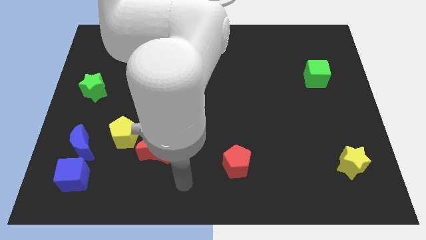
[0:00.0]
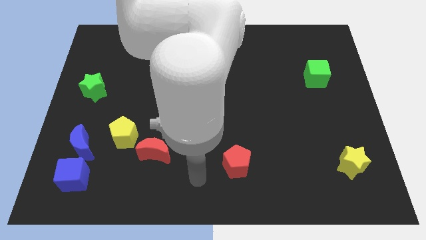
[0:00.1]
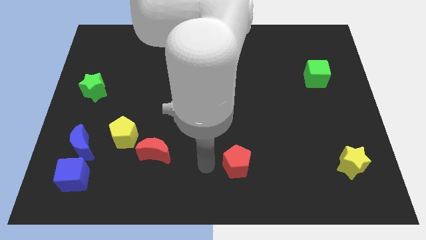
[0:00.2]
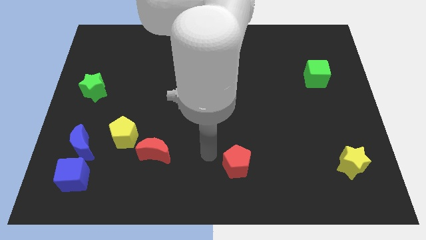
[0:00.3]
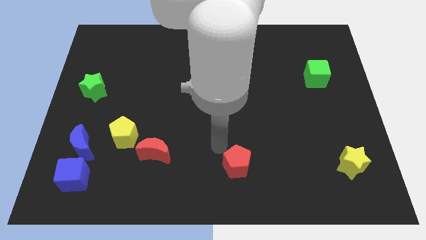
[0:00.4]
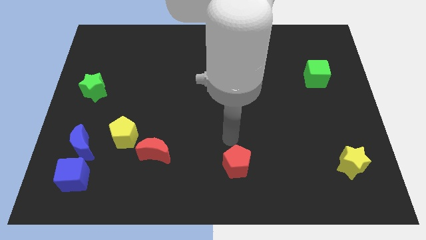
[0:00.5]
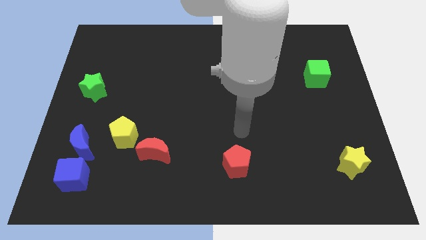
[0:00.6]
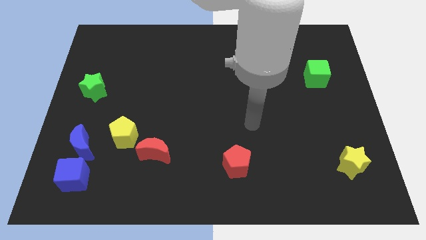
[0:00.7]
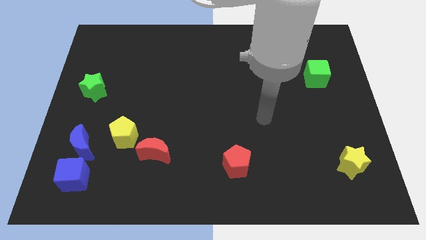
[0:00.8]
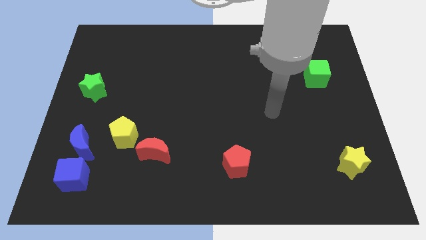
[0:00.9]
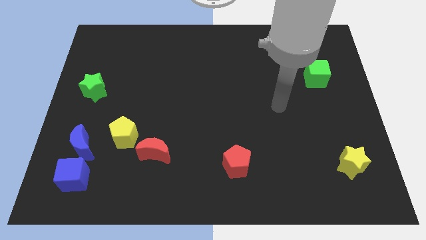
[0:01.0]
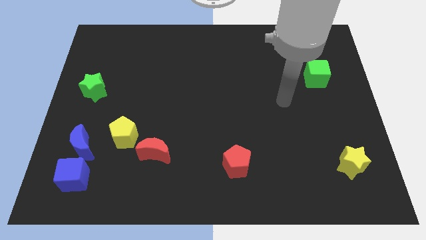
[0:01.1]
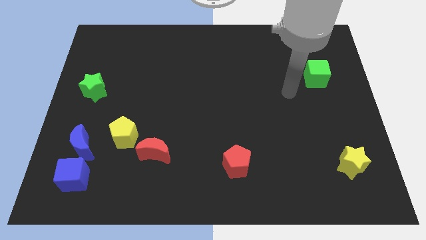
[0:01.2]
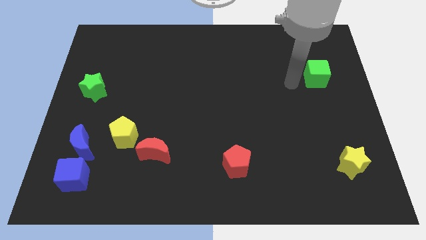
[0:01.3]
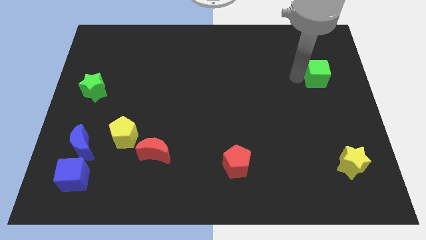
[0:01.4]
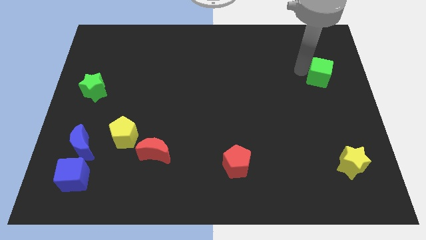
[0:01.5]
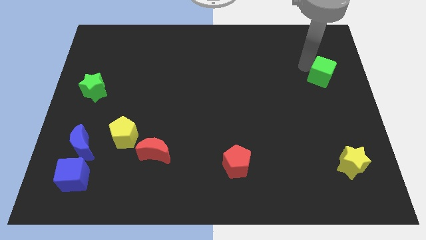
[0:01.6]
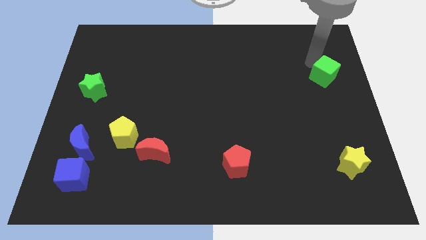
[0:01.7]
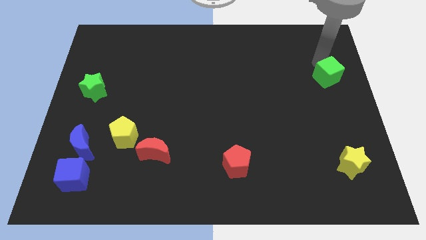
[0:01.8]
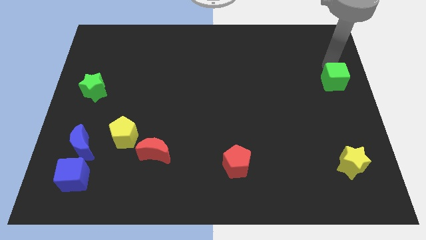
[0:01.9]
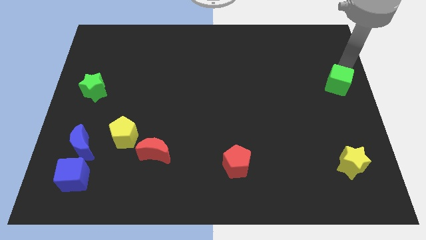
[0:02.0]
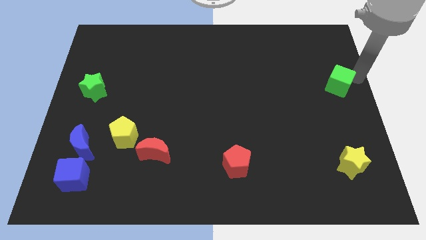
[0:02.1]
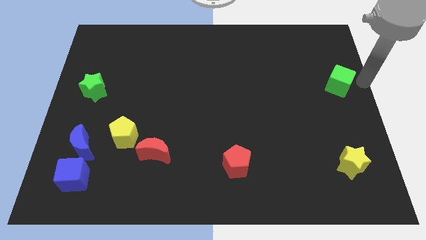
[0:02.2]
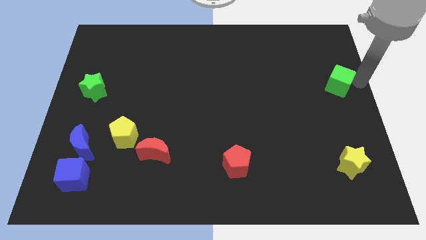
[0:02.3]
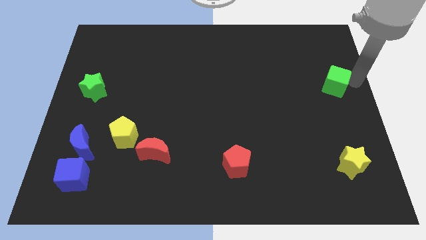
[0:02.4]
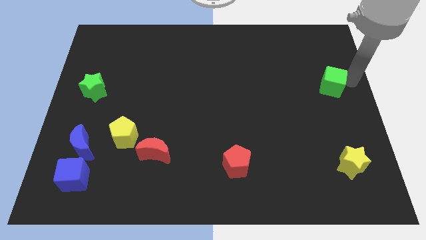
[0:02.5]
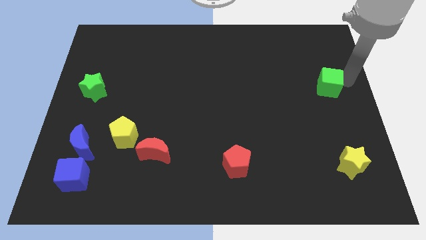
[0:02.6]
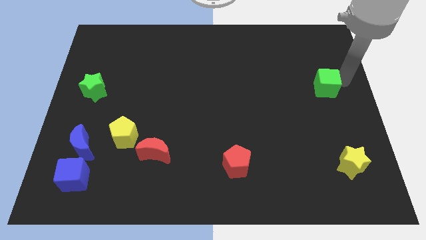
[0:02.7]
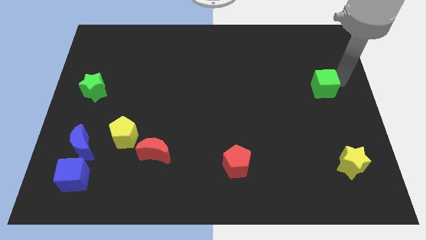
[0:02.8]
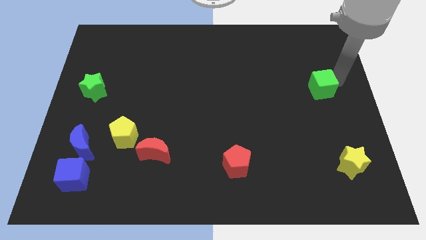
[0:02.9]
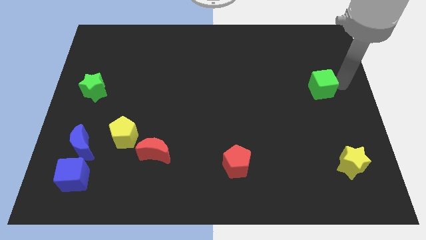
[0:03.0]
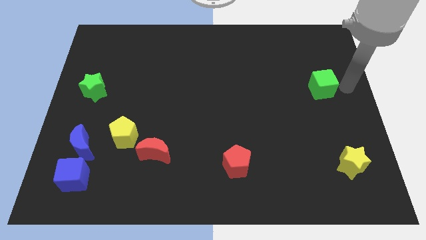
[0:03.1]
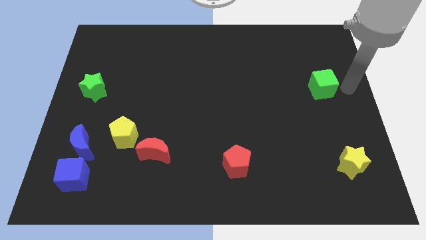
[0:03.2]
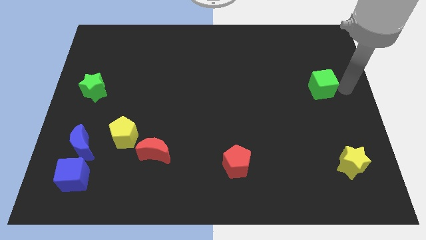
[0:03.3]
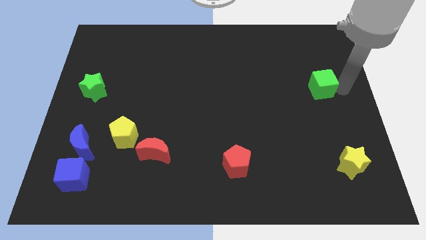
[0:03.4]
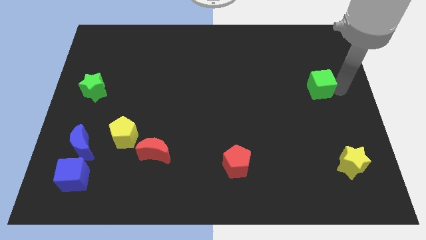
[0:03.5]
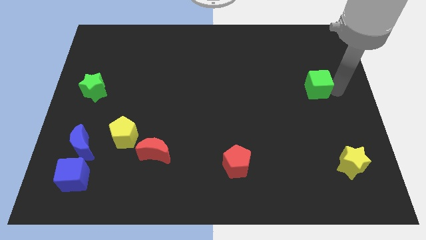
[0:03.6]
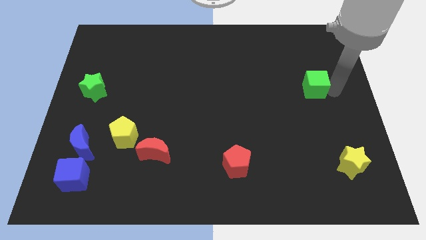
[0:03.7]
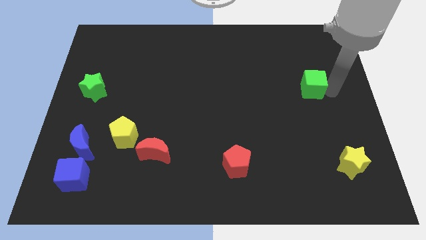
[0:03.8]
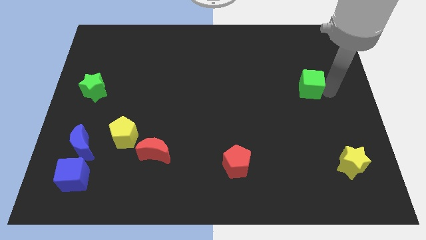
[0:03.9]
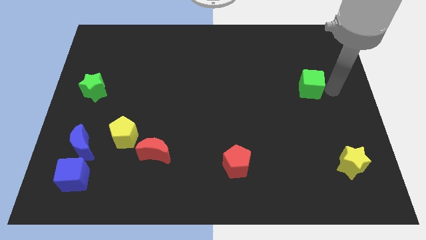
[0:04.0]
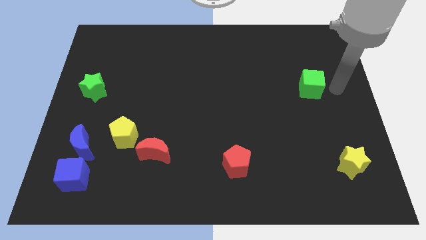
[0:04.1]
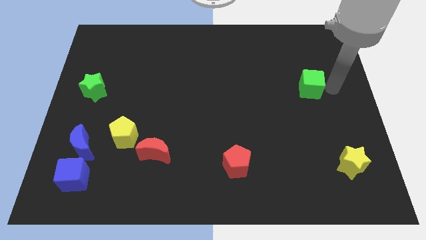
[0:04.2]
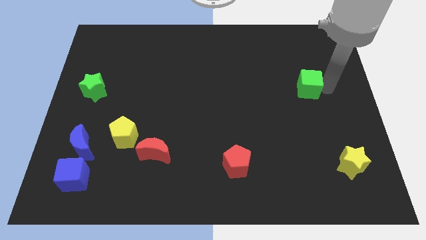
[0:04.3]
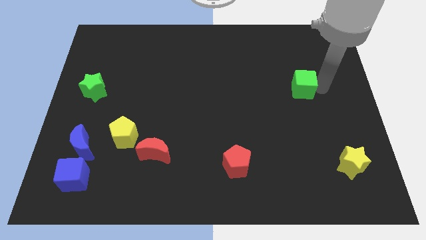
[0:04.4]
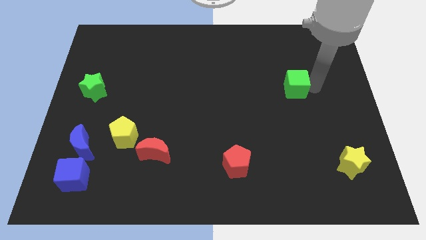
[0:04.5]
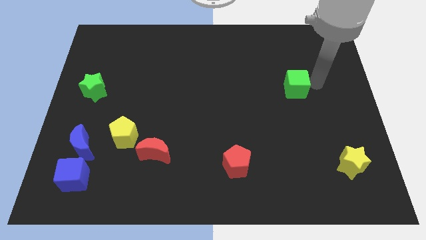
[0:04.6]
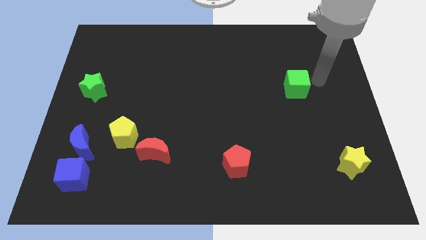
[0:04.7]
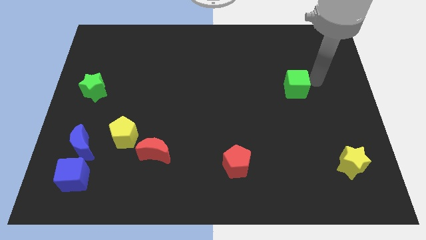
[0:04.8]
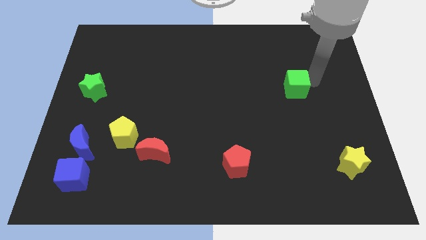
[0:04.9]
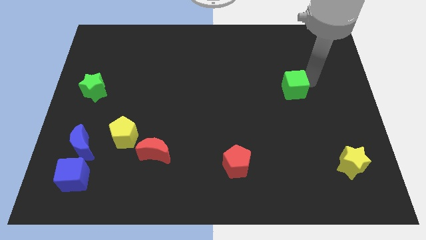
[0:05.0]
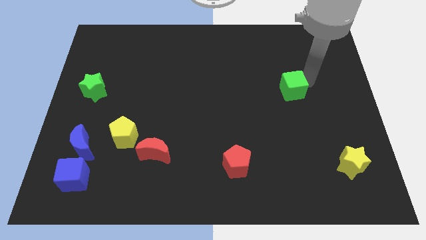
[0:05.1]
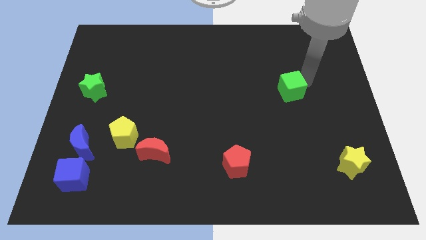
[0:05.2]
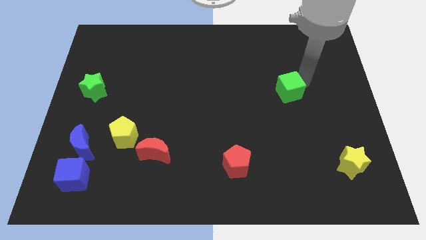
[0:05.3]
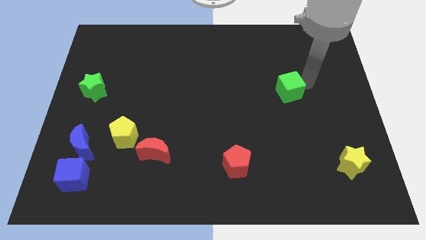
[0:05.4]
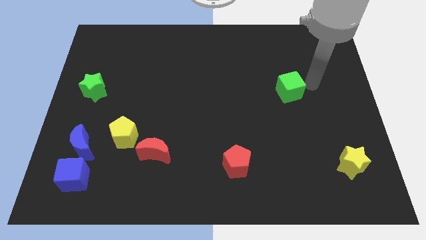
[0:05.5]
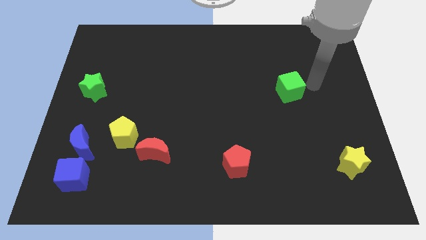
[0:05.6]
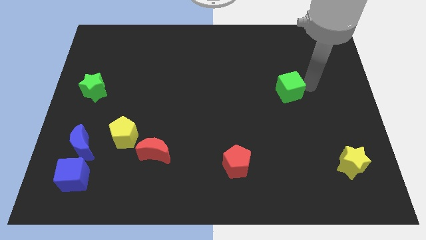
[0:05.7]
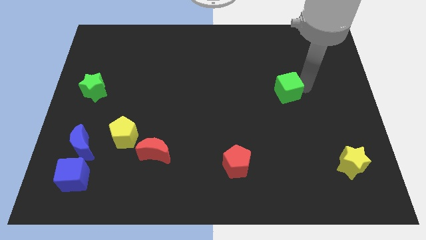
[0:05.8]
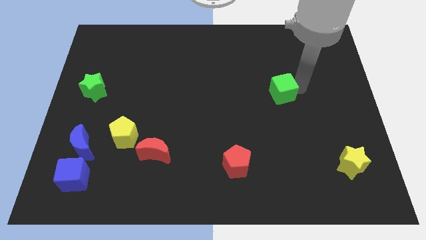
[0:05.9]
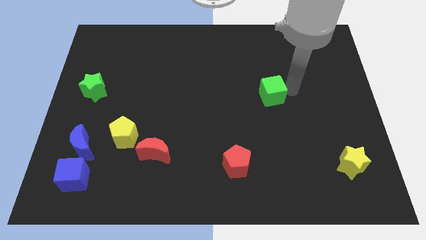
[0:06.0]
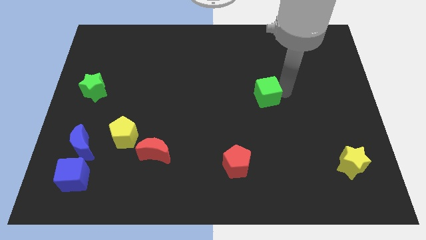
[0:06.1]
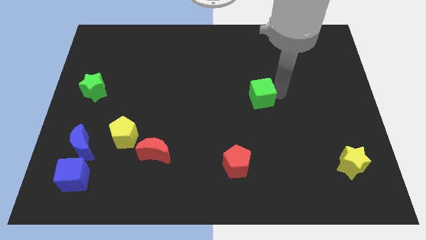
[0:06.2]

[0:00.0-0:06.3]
push the green cube to the center of the board
